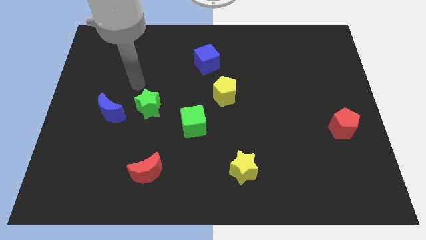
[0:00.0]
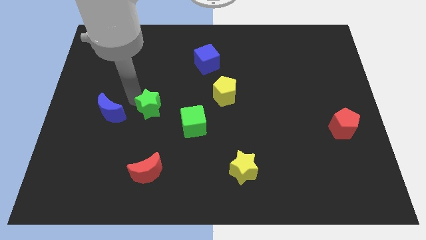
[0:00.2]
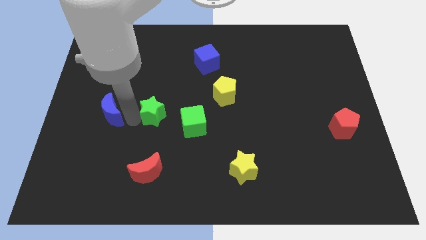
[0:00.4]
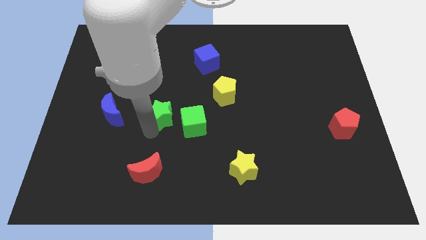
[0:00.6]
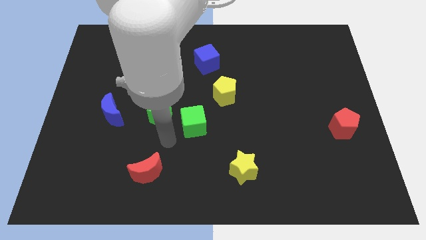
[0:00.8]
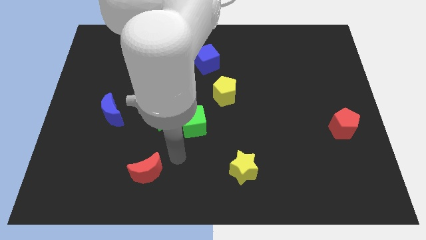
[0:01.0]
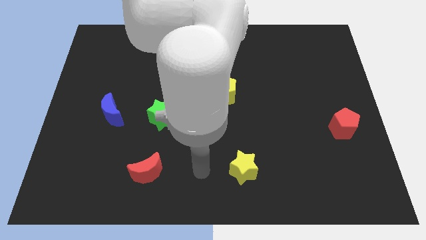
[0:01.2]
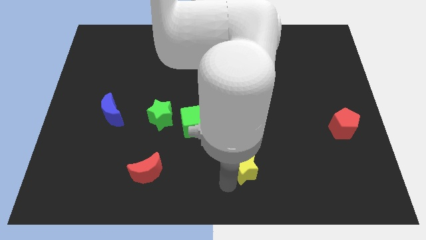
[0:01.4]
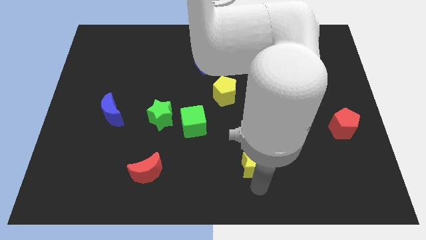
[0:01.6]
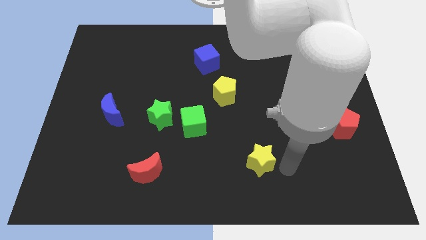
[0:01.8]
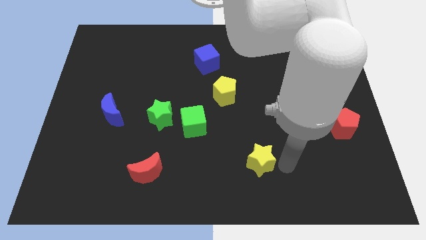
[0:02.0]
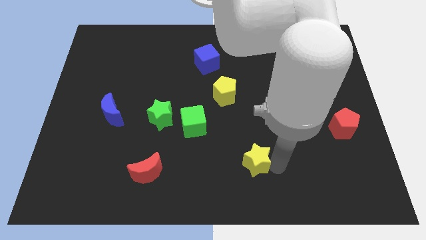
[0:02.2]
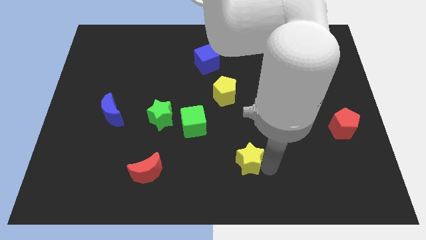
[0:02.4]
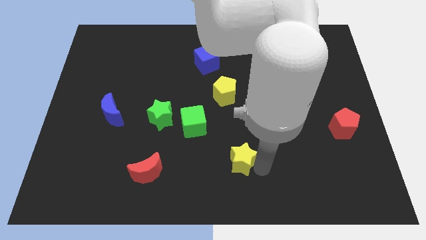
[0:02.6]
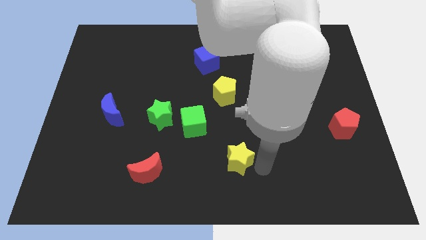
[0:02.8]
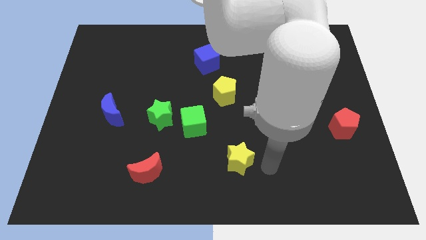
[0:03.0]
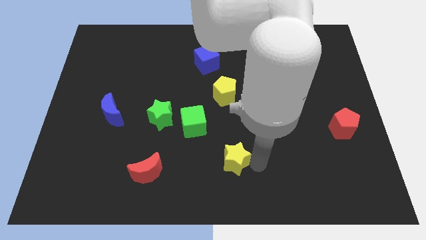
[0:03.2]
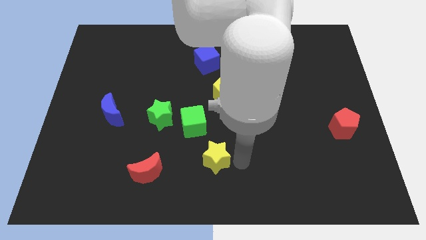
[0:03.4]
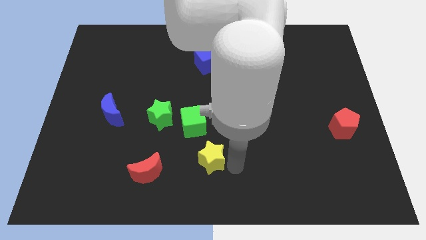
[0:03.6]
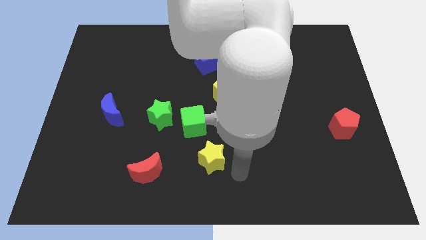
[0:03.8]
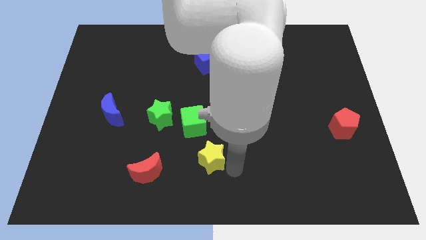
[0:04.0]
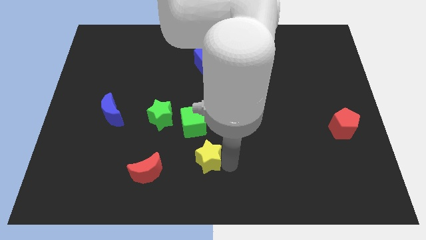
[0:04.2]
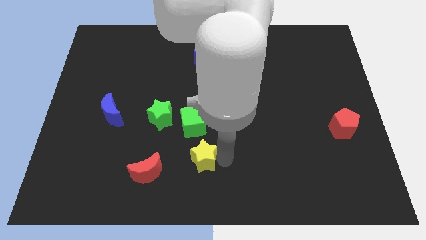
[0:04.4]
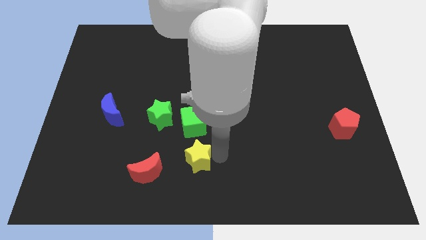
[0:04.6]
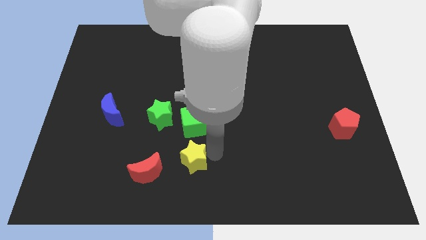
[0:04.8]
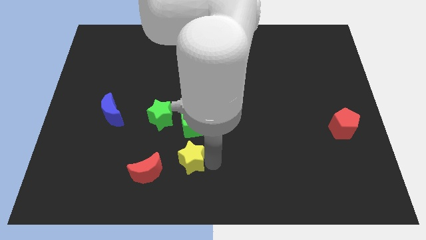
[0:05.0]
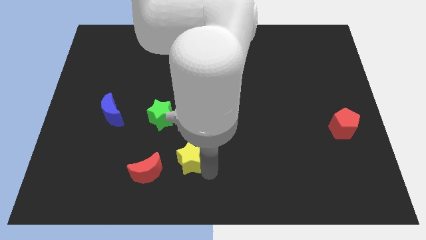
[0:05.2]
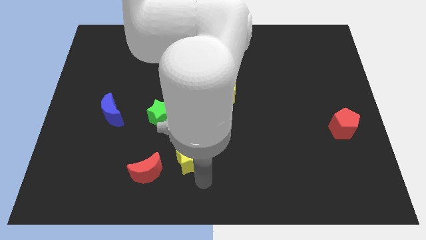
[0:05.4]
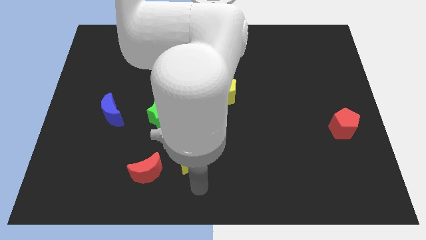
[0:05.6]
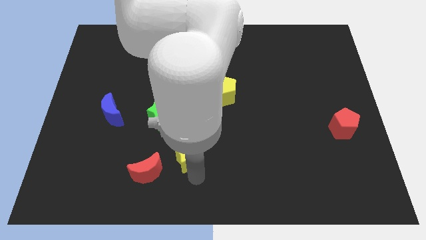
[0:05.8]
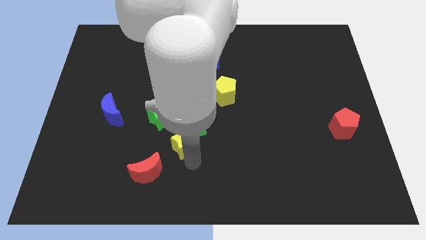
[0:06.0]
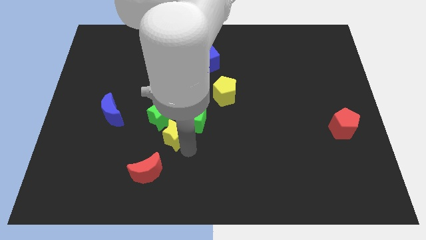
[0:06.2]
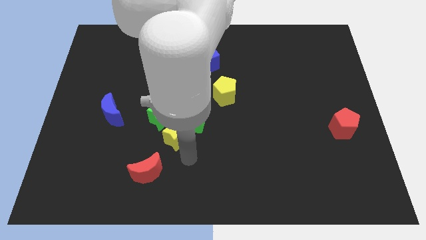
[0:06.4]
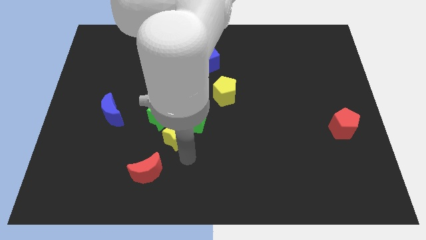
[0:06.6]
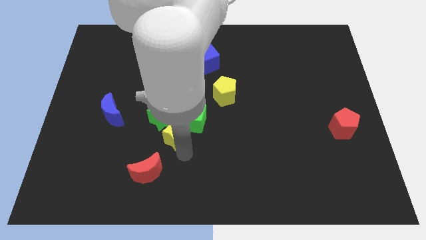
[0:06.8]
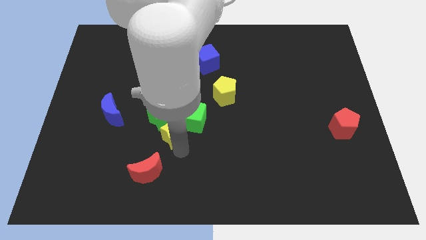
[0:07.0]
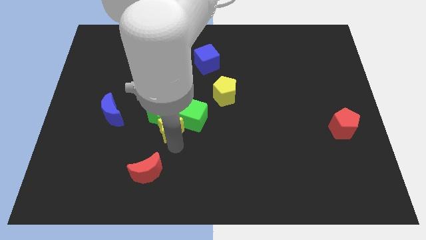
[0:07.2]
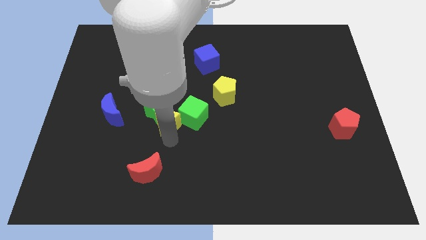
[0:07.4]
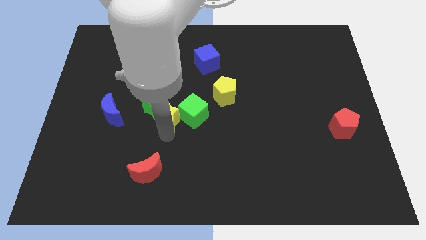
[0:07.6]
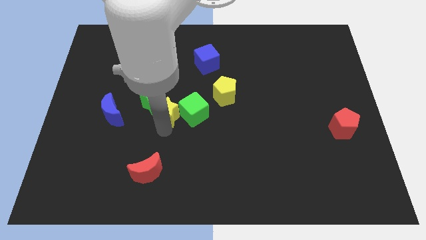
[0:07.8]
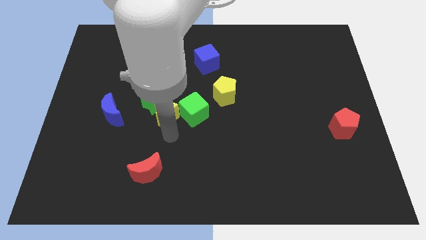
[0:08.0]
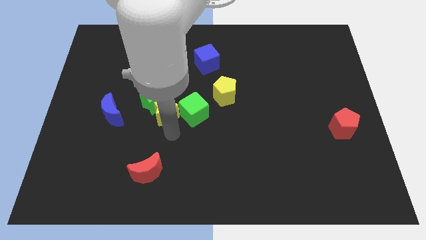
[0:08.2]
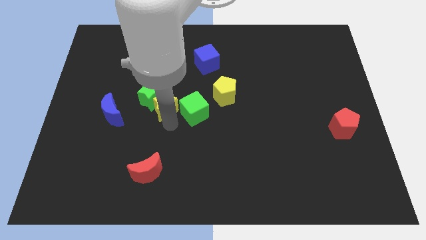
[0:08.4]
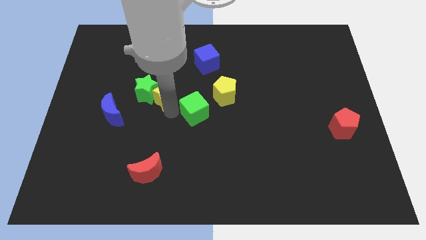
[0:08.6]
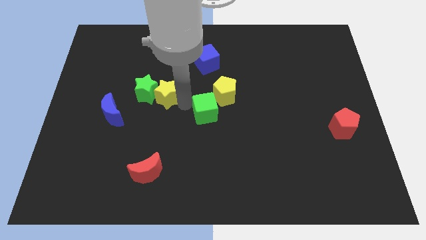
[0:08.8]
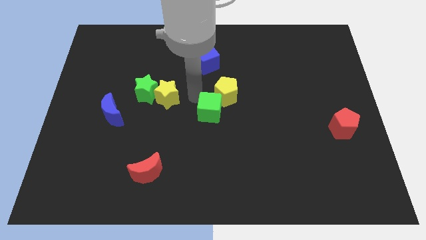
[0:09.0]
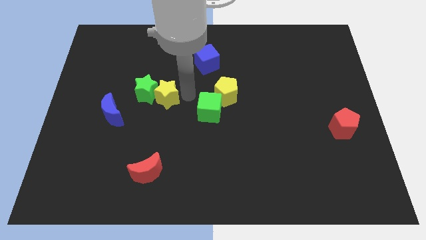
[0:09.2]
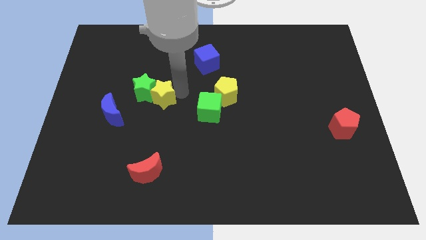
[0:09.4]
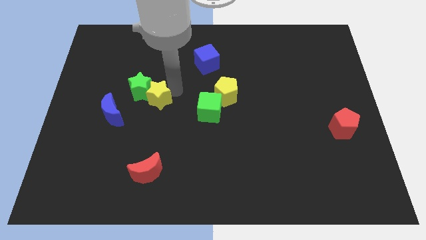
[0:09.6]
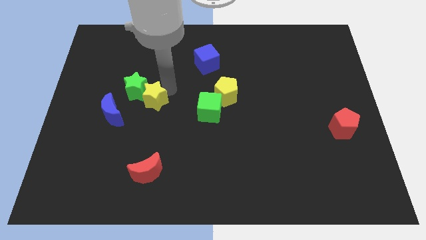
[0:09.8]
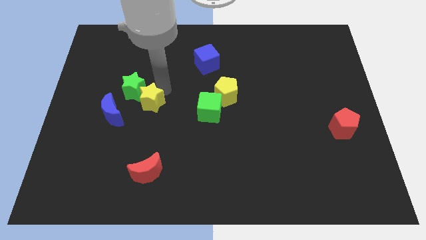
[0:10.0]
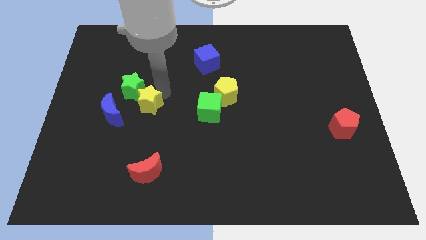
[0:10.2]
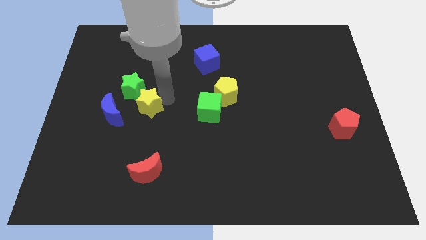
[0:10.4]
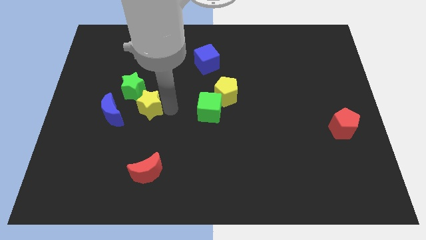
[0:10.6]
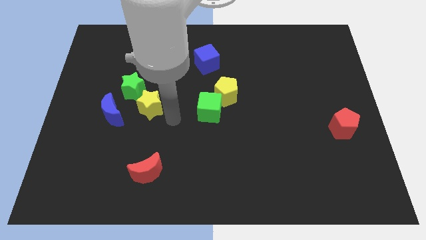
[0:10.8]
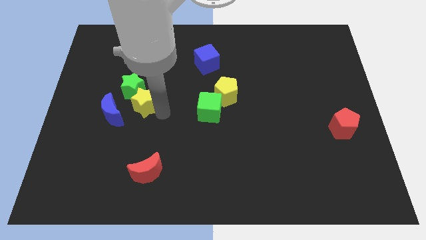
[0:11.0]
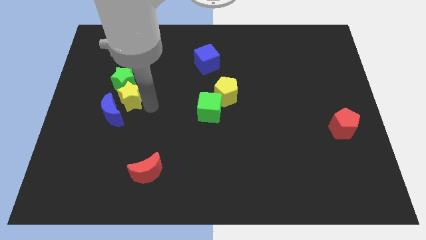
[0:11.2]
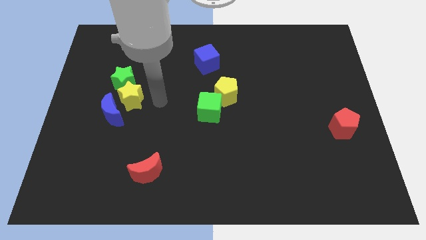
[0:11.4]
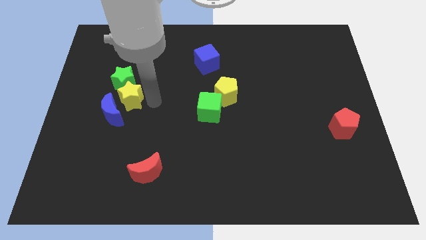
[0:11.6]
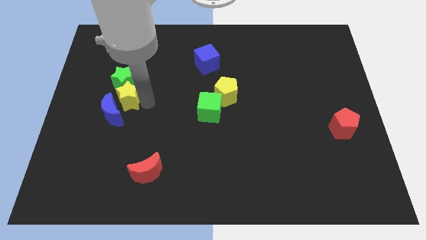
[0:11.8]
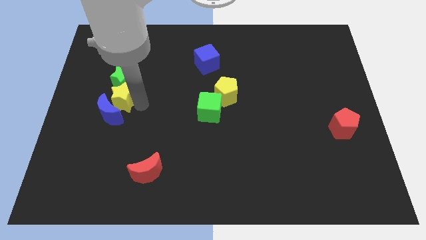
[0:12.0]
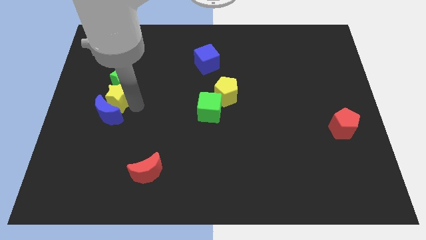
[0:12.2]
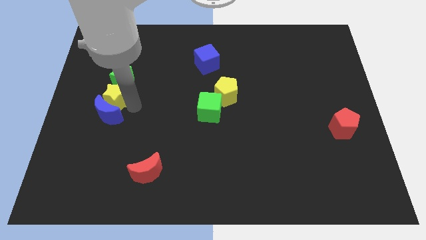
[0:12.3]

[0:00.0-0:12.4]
move the yellow star diagonally up and to the left of the blue moon
